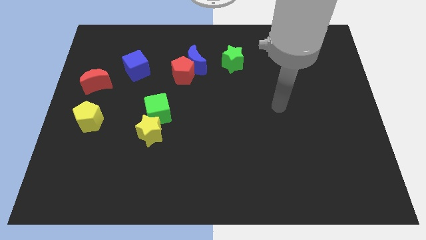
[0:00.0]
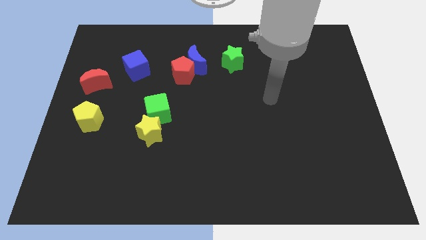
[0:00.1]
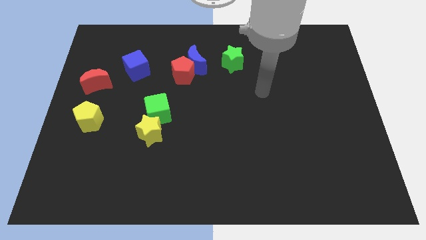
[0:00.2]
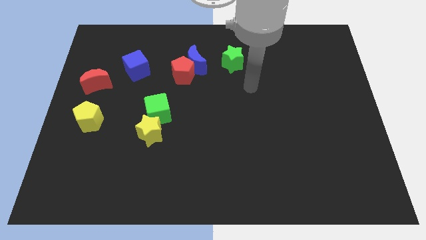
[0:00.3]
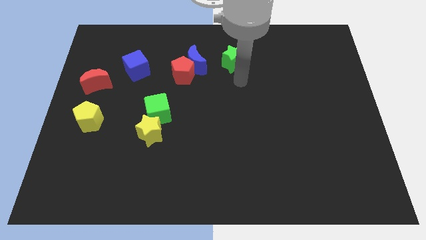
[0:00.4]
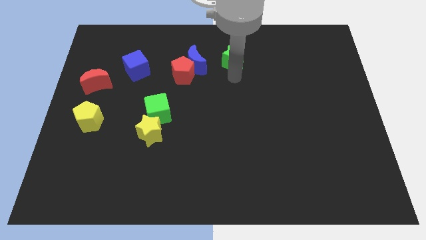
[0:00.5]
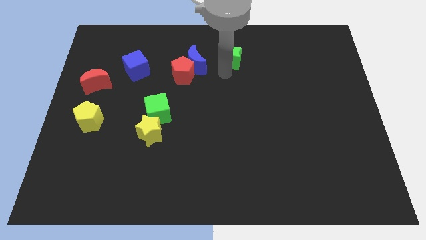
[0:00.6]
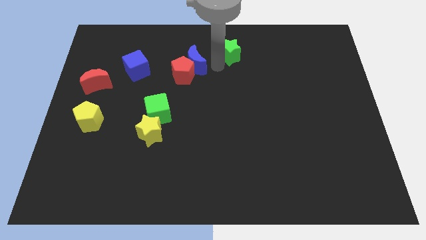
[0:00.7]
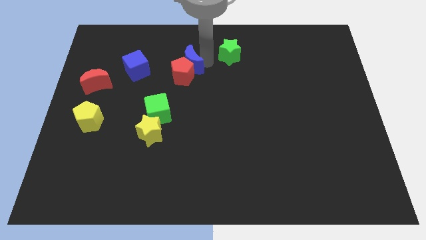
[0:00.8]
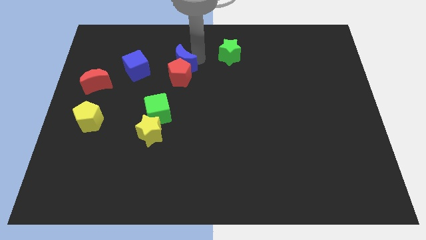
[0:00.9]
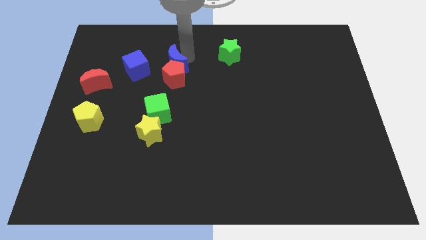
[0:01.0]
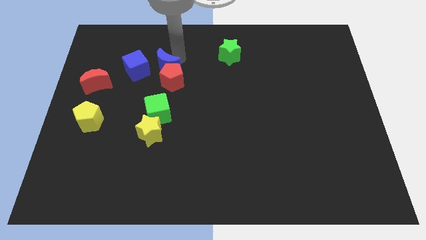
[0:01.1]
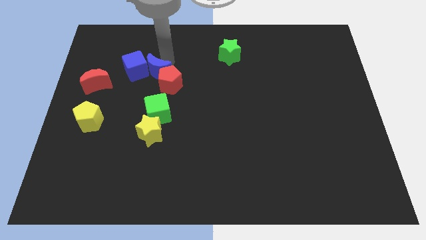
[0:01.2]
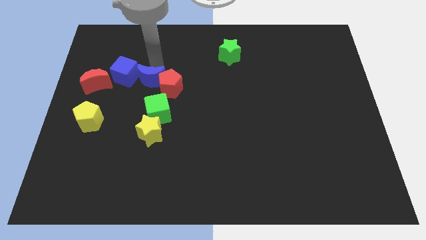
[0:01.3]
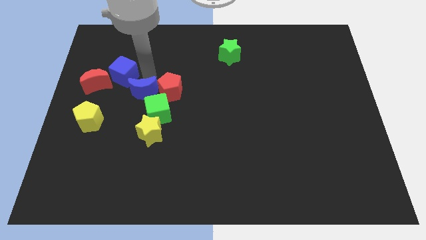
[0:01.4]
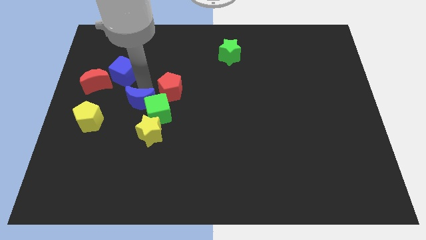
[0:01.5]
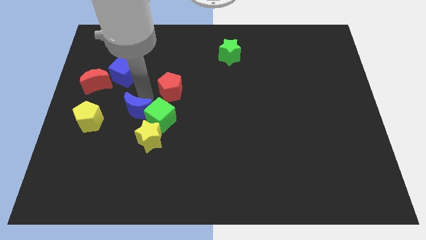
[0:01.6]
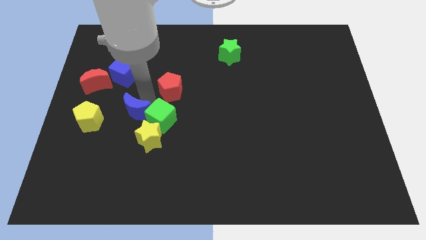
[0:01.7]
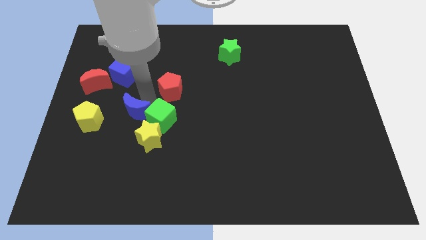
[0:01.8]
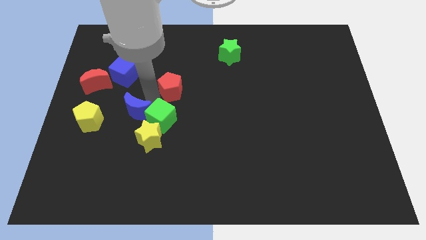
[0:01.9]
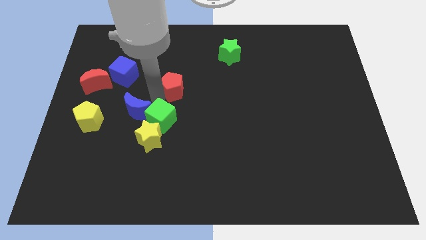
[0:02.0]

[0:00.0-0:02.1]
pull the red pentagon apart from the blue moon

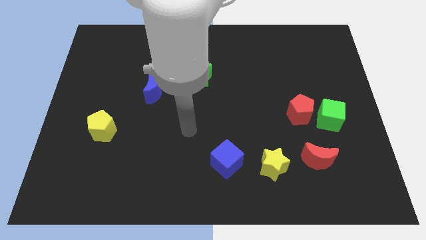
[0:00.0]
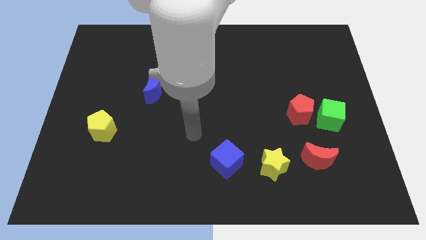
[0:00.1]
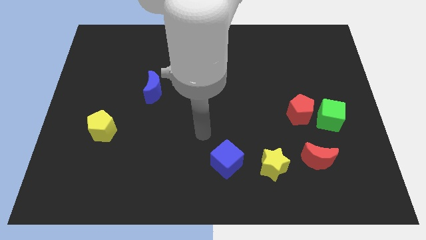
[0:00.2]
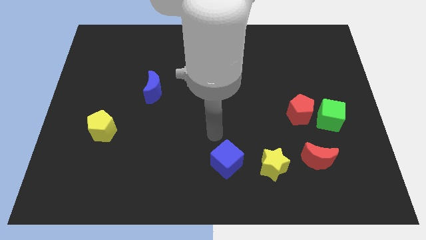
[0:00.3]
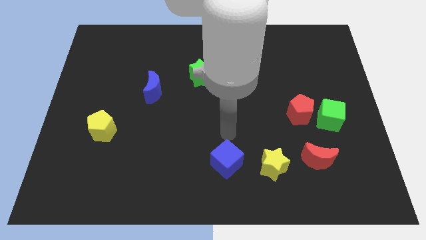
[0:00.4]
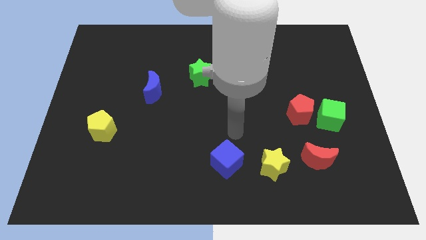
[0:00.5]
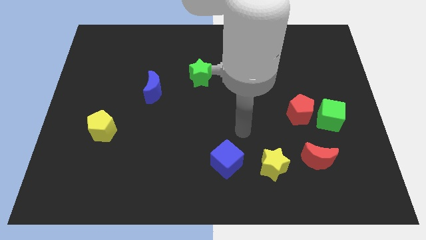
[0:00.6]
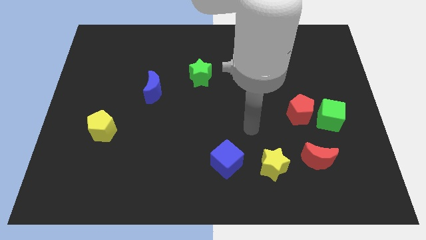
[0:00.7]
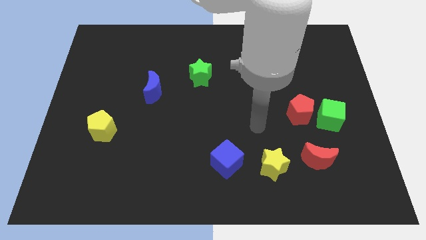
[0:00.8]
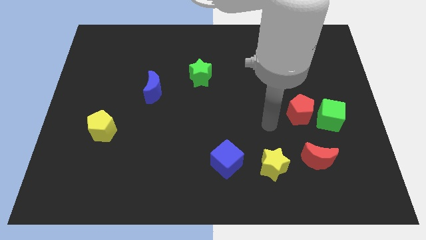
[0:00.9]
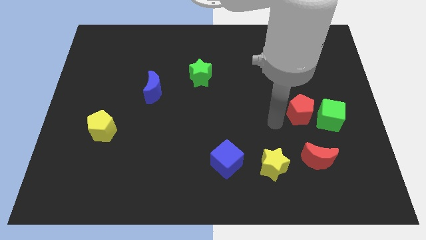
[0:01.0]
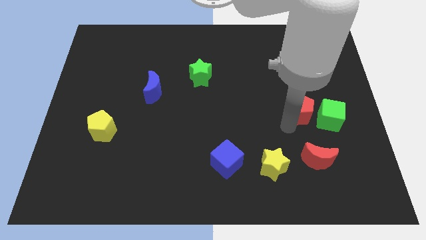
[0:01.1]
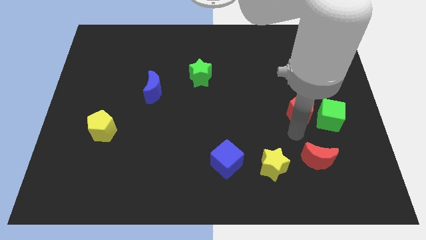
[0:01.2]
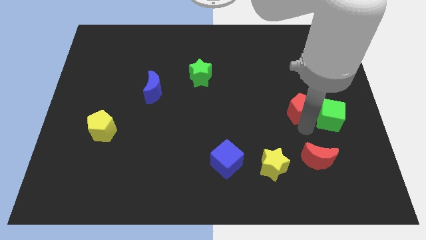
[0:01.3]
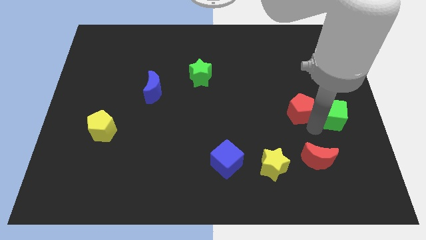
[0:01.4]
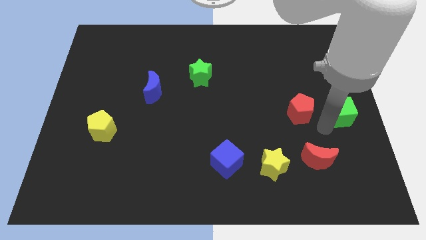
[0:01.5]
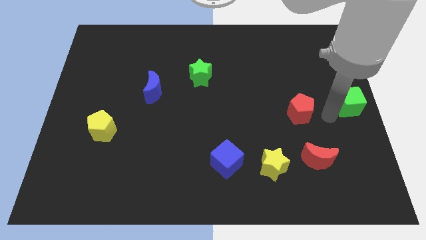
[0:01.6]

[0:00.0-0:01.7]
separate the red pentagon from the green cube

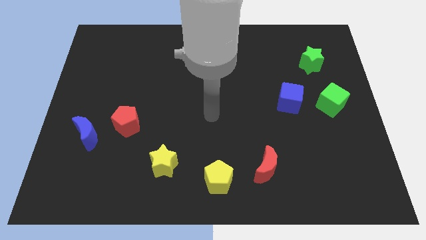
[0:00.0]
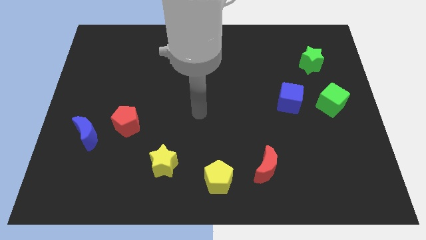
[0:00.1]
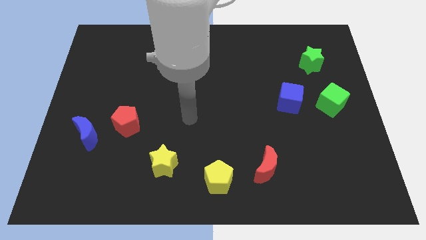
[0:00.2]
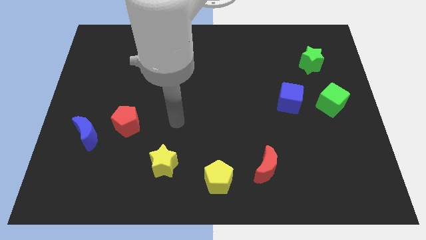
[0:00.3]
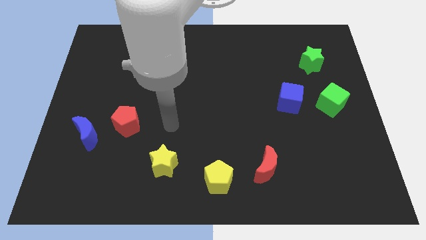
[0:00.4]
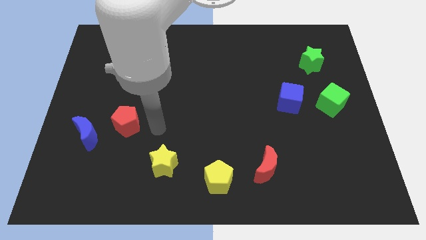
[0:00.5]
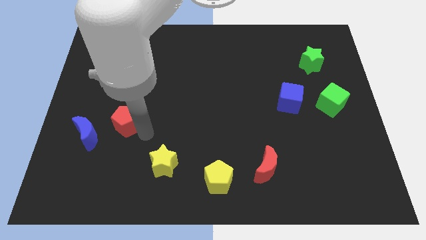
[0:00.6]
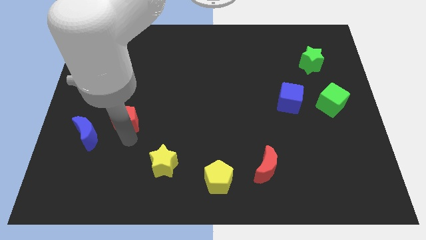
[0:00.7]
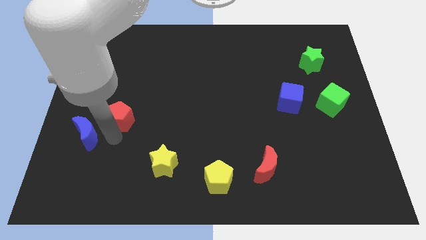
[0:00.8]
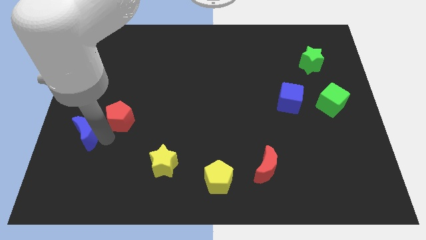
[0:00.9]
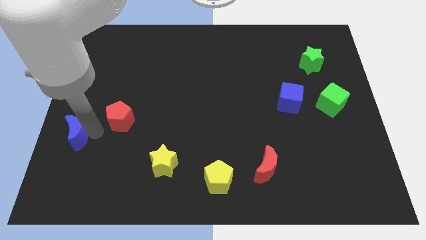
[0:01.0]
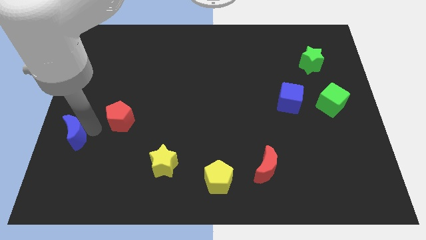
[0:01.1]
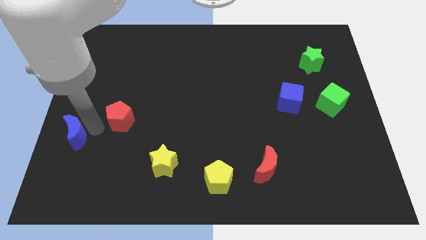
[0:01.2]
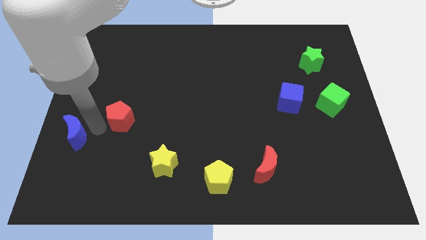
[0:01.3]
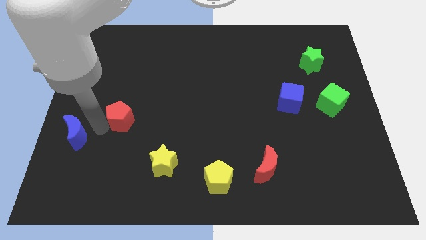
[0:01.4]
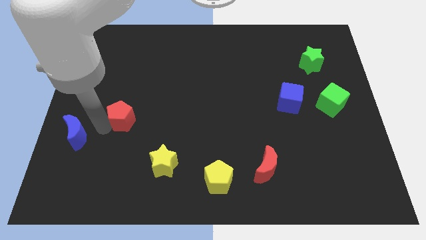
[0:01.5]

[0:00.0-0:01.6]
move the red pentagon away from the blue moon

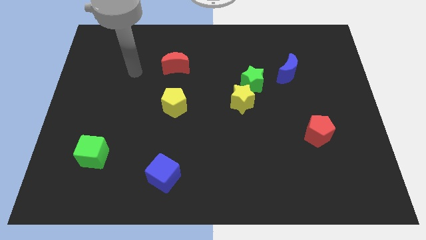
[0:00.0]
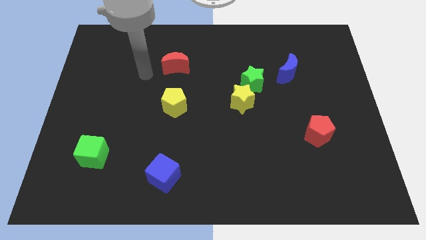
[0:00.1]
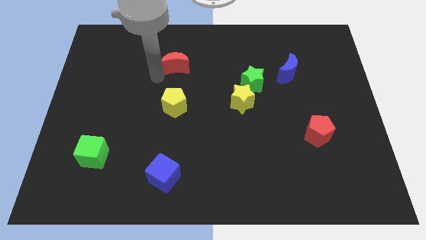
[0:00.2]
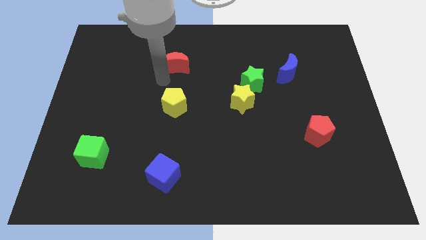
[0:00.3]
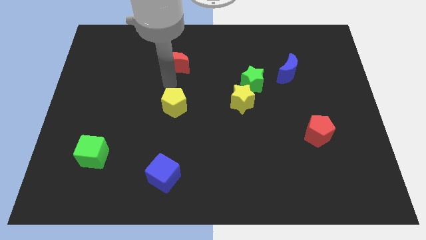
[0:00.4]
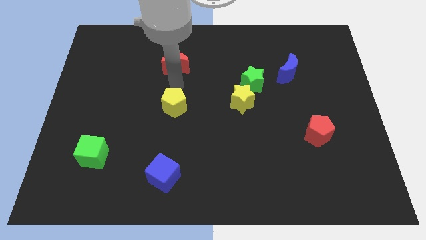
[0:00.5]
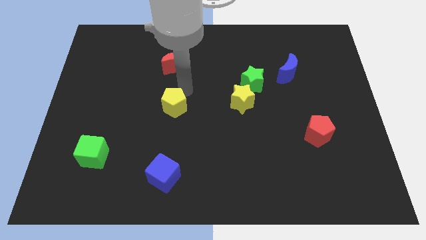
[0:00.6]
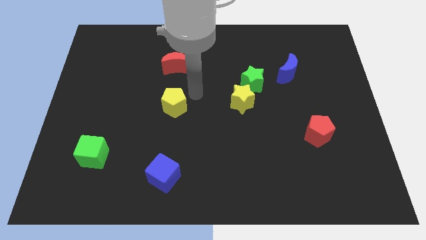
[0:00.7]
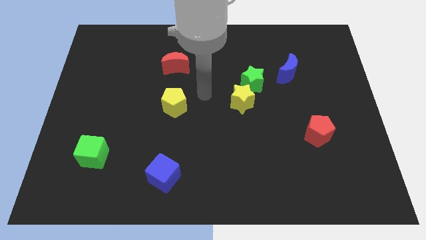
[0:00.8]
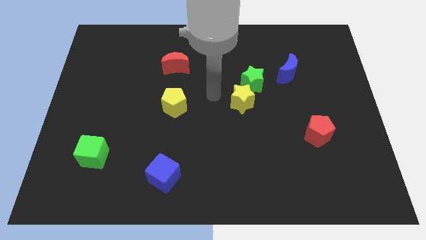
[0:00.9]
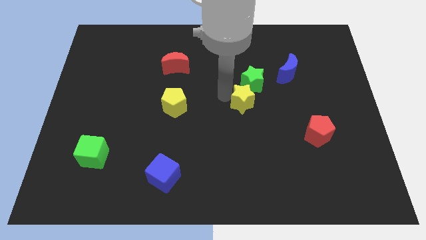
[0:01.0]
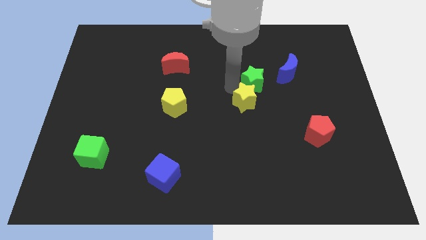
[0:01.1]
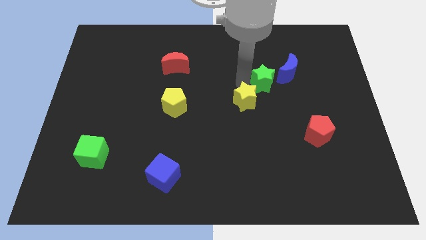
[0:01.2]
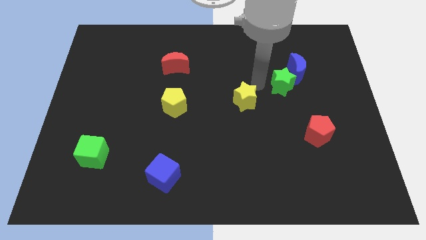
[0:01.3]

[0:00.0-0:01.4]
move the yellow star away from the green star

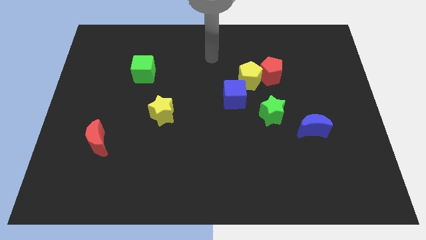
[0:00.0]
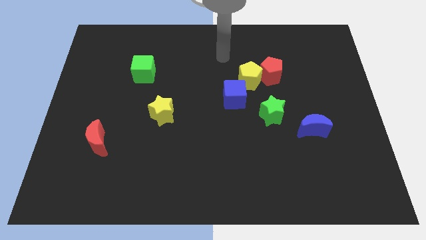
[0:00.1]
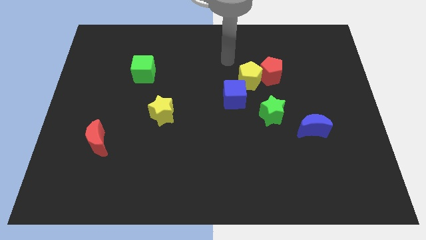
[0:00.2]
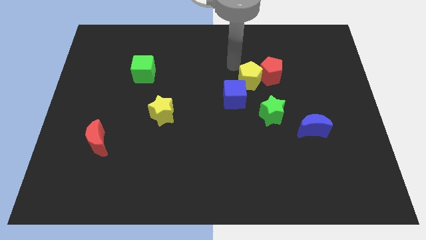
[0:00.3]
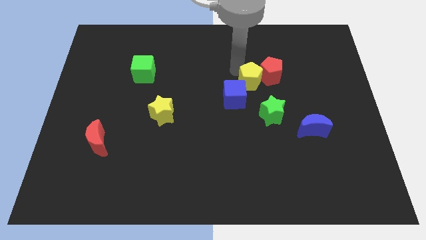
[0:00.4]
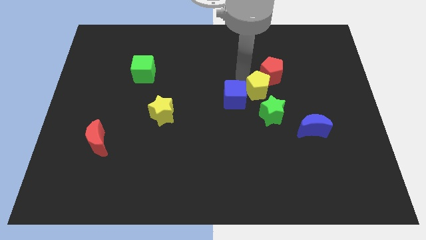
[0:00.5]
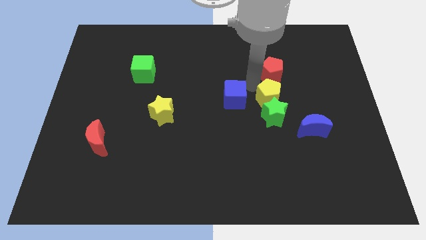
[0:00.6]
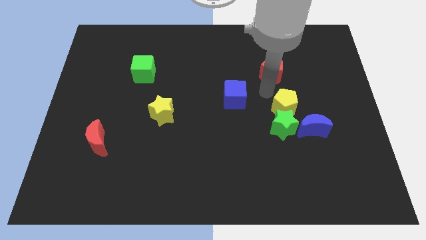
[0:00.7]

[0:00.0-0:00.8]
move the red pentagon away from the yellow pentagon

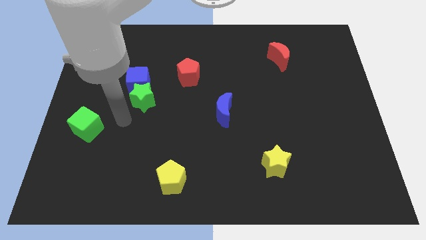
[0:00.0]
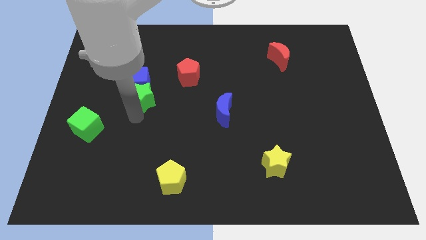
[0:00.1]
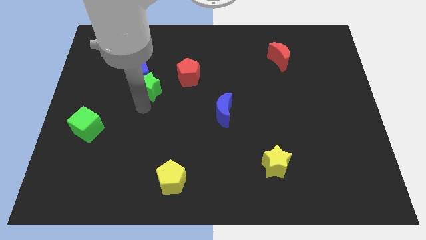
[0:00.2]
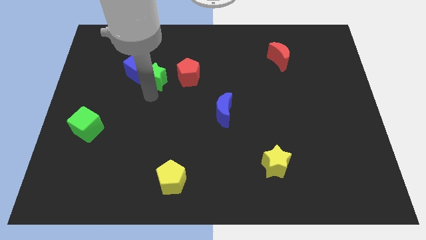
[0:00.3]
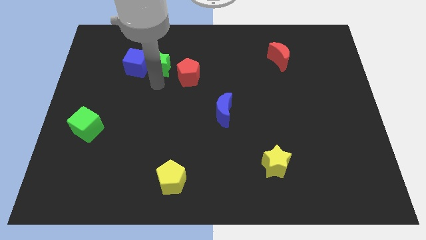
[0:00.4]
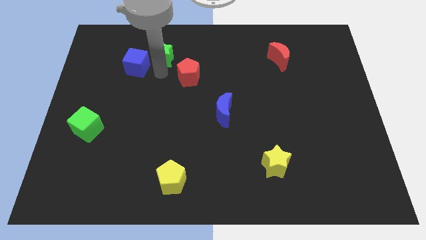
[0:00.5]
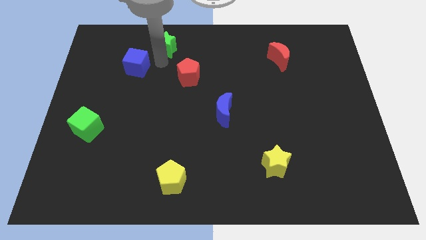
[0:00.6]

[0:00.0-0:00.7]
move the blue cube away from the green star

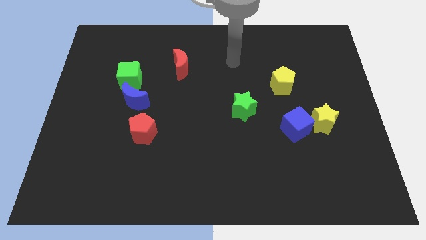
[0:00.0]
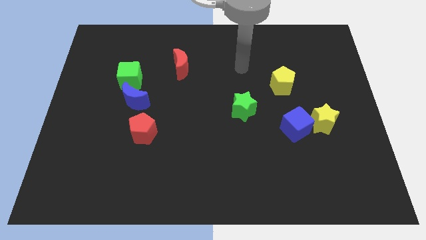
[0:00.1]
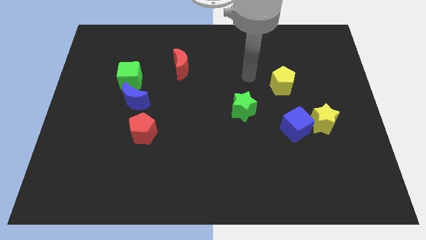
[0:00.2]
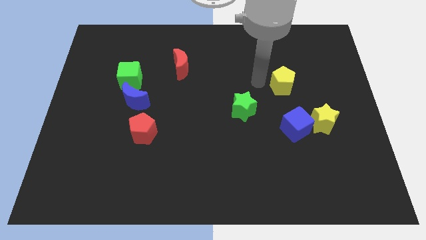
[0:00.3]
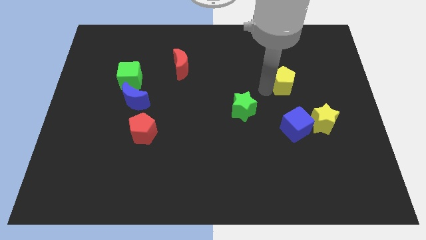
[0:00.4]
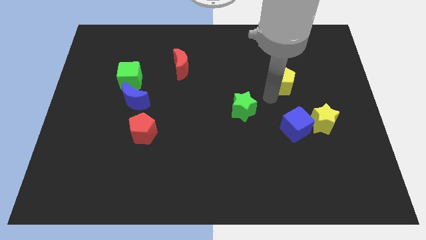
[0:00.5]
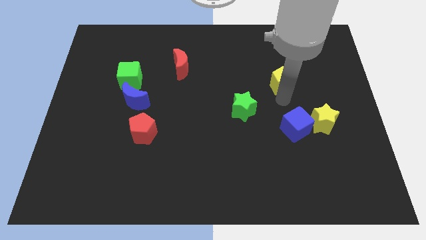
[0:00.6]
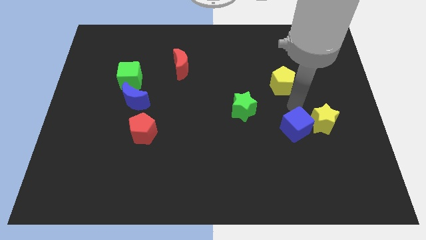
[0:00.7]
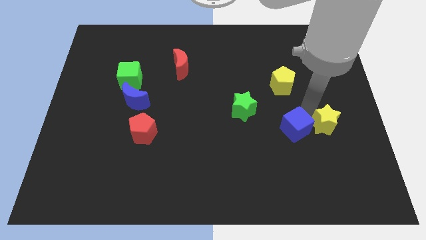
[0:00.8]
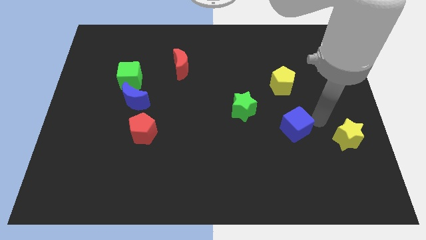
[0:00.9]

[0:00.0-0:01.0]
separate the blue cube from the yellow star
